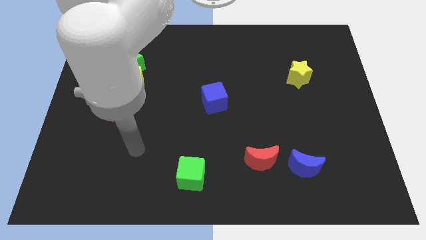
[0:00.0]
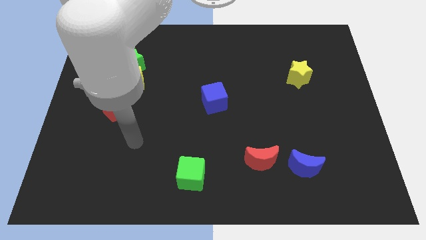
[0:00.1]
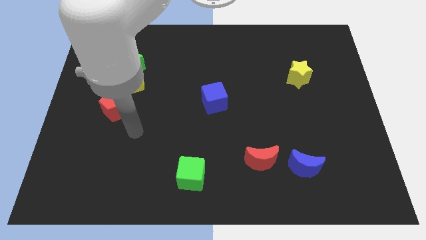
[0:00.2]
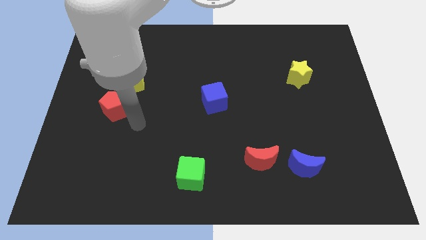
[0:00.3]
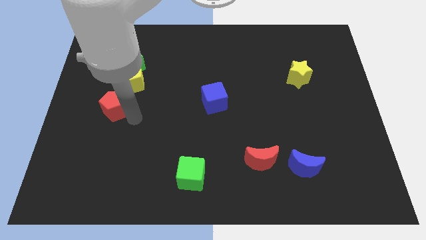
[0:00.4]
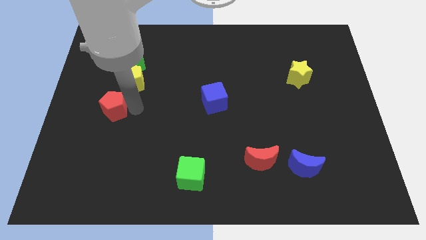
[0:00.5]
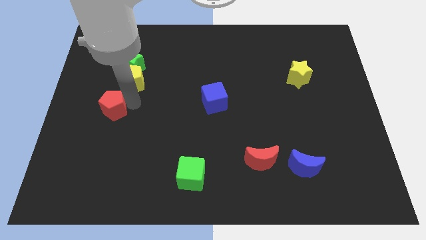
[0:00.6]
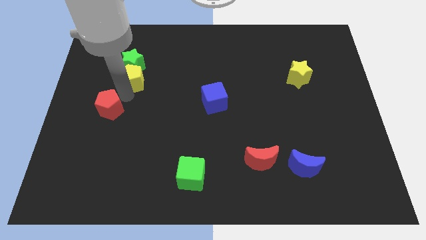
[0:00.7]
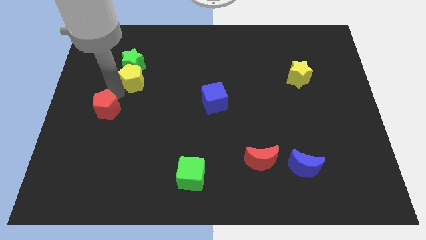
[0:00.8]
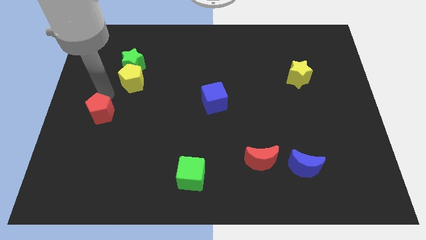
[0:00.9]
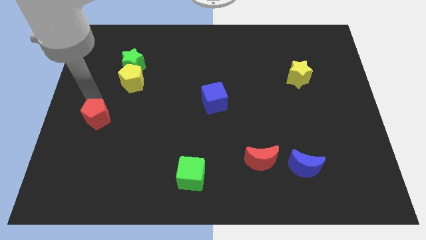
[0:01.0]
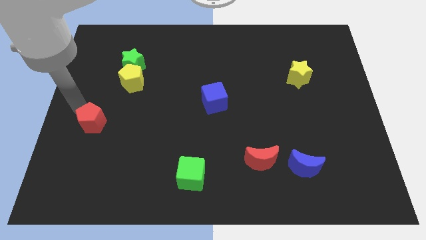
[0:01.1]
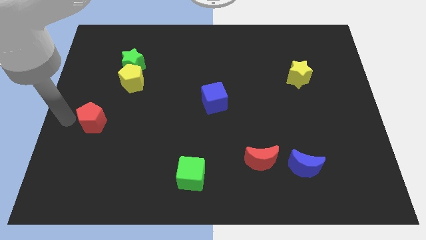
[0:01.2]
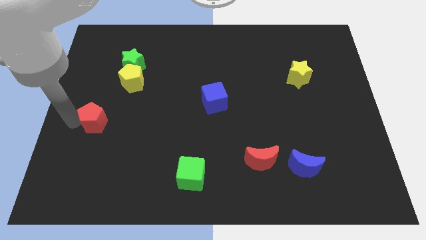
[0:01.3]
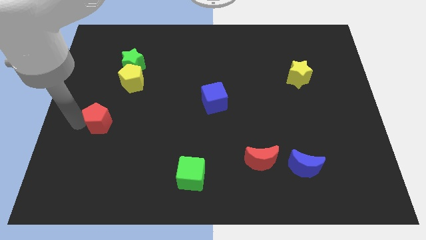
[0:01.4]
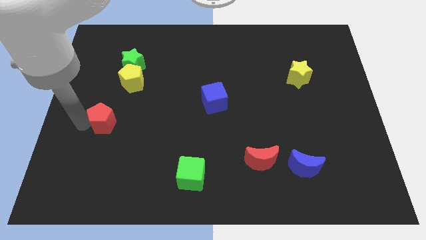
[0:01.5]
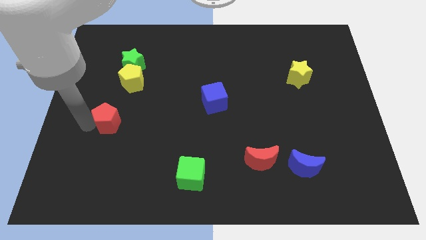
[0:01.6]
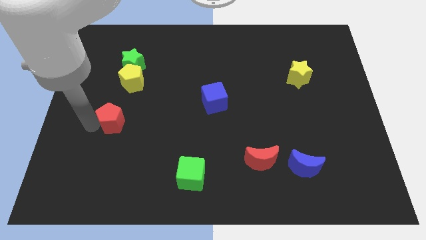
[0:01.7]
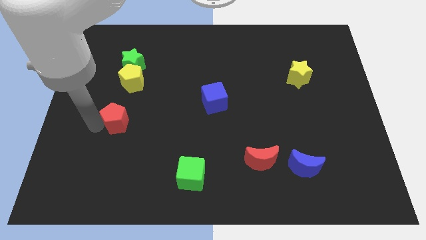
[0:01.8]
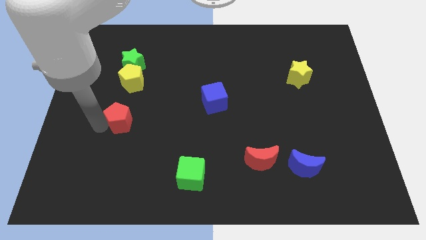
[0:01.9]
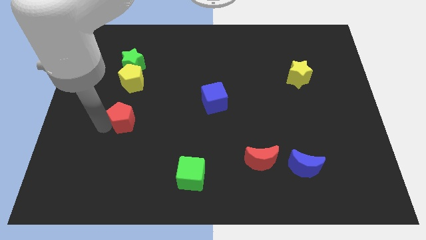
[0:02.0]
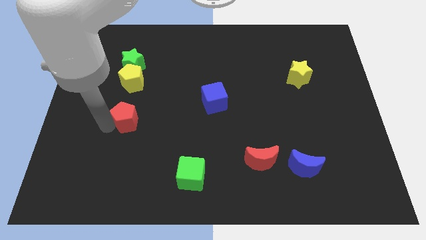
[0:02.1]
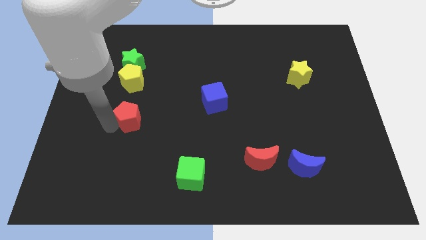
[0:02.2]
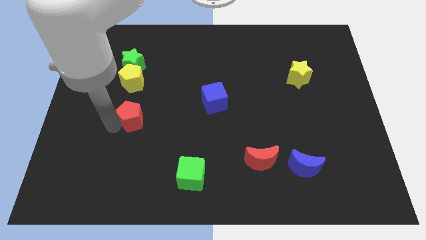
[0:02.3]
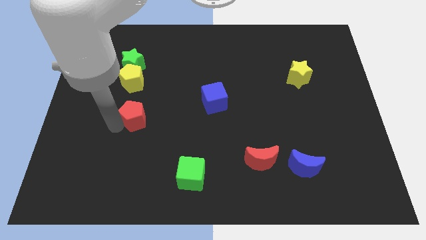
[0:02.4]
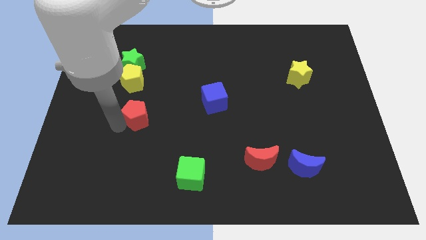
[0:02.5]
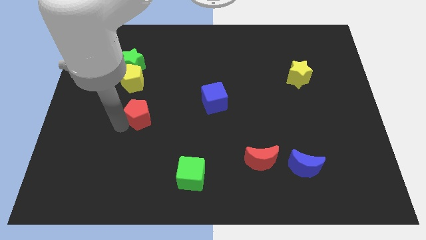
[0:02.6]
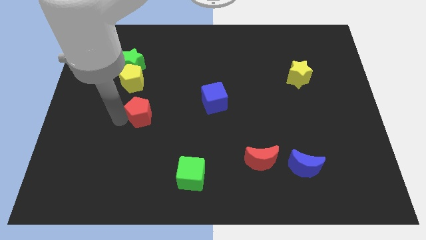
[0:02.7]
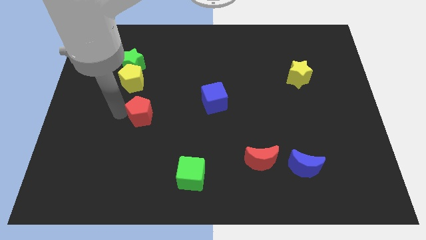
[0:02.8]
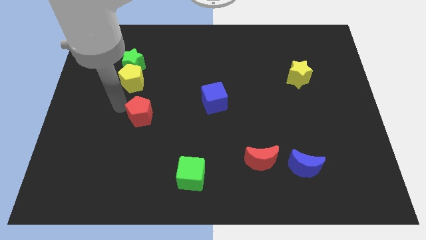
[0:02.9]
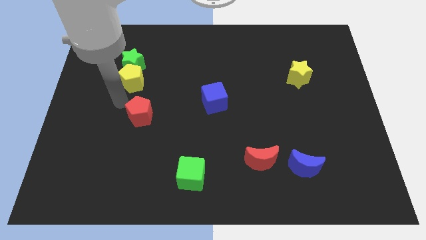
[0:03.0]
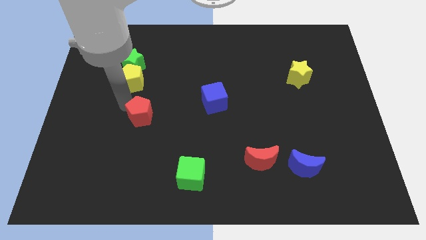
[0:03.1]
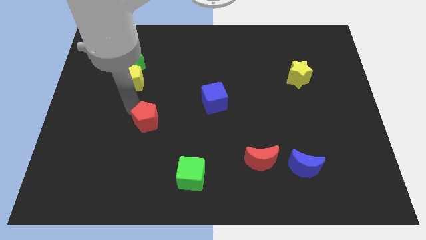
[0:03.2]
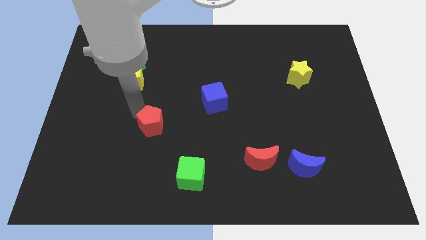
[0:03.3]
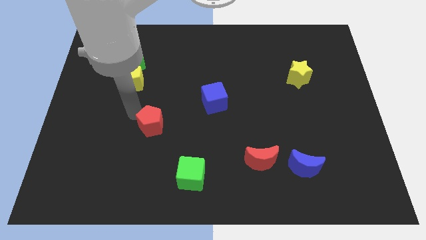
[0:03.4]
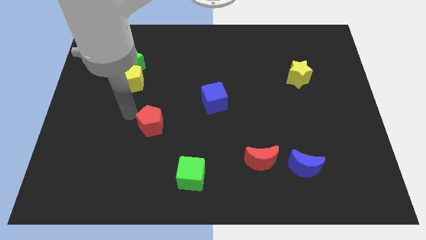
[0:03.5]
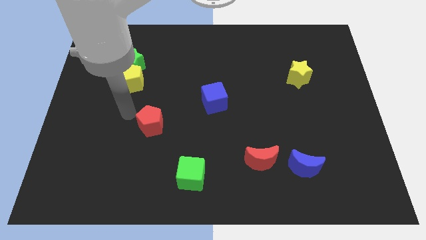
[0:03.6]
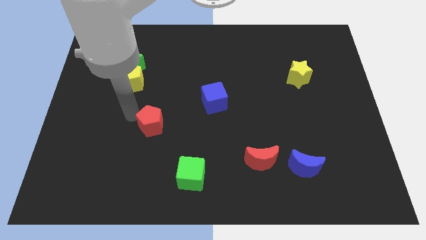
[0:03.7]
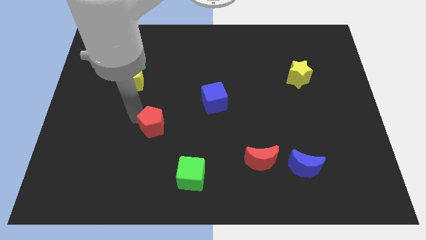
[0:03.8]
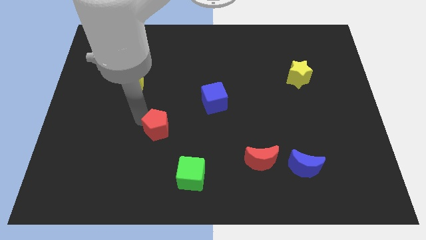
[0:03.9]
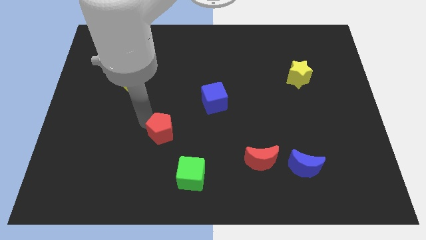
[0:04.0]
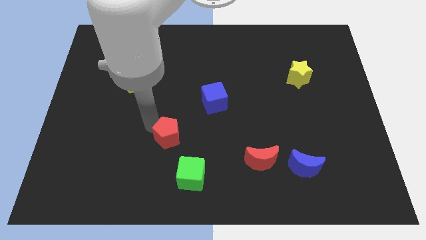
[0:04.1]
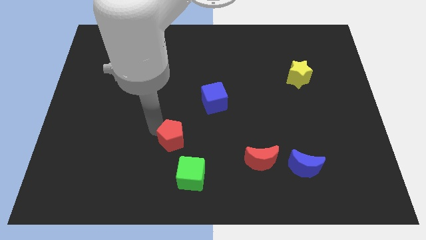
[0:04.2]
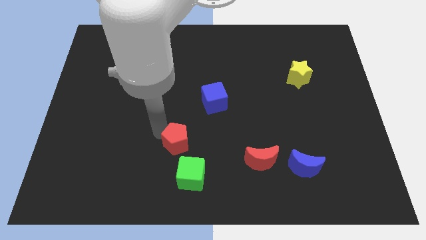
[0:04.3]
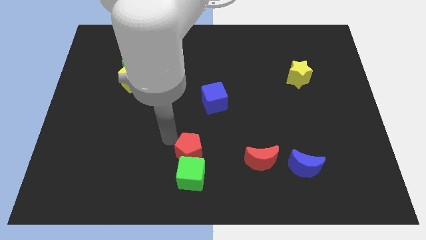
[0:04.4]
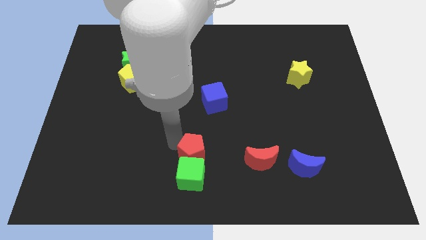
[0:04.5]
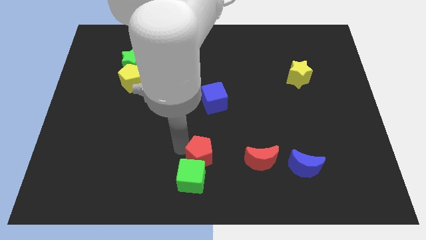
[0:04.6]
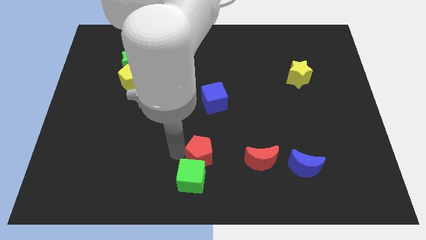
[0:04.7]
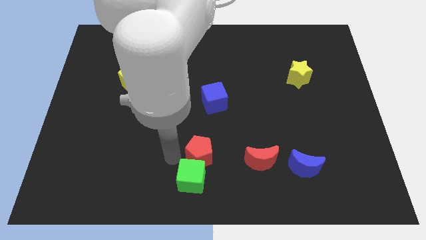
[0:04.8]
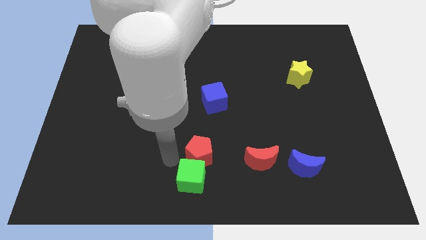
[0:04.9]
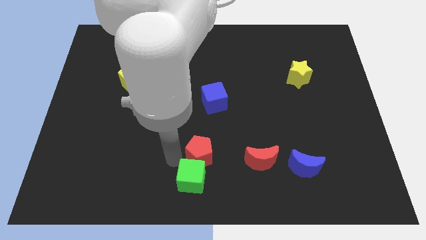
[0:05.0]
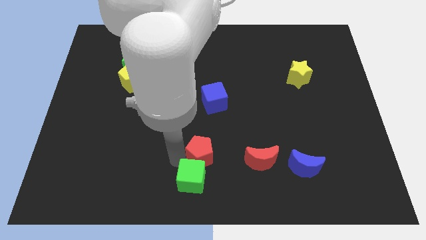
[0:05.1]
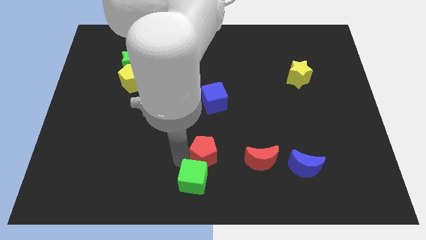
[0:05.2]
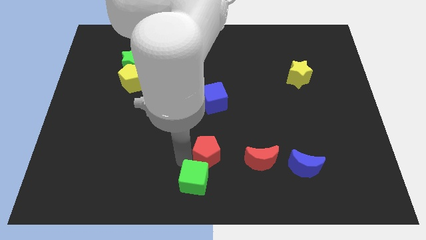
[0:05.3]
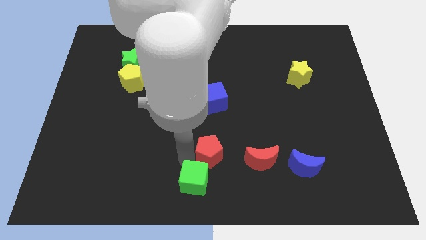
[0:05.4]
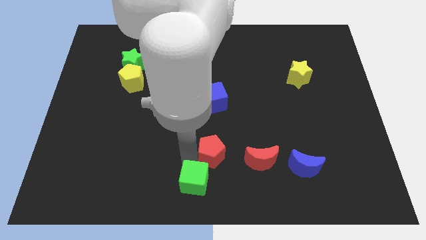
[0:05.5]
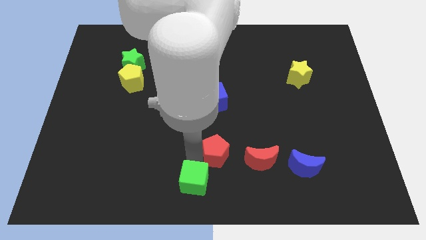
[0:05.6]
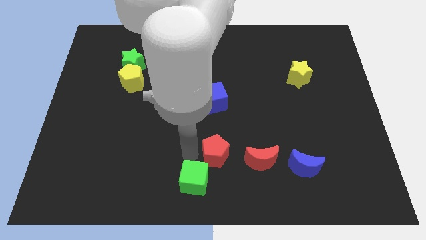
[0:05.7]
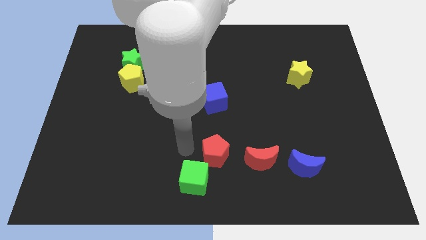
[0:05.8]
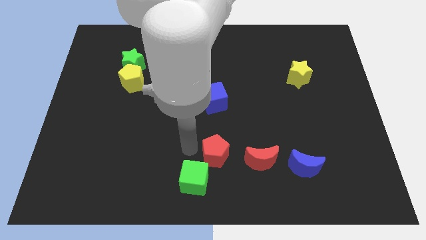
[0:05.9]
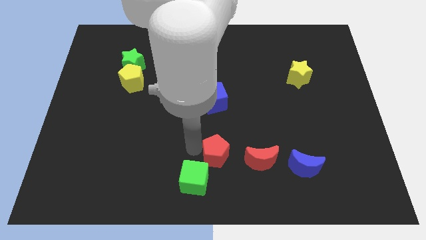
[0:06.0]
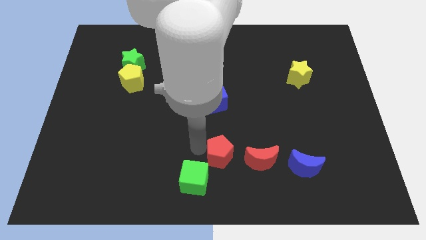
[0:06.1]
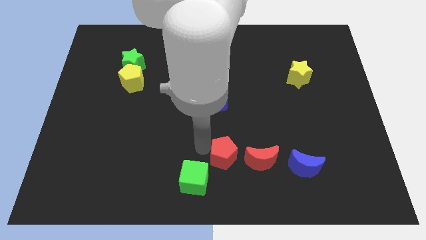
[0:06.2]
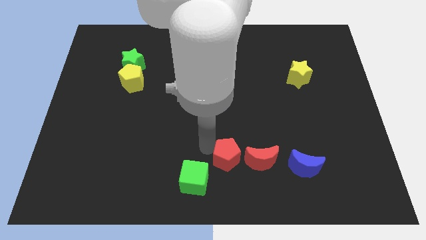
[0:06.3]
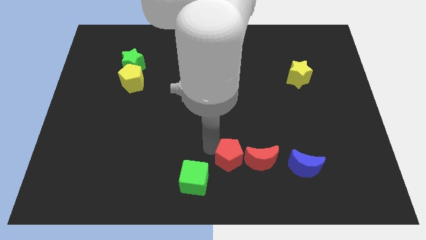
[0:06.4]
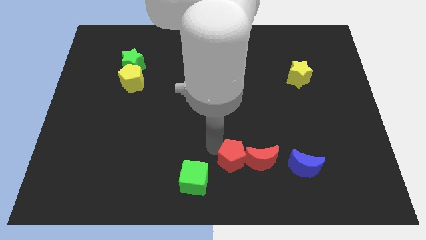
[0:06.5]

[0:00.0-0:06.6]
move the red pentagon next to the red moon

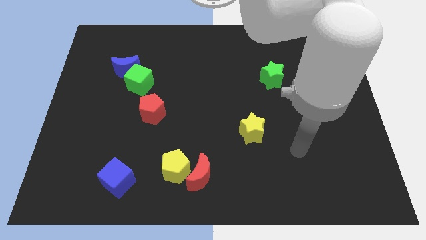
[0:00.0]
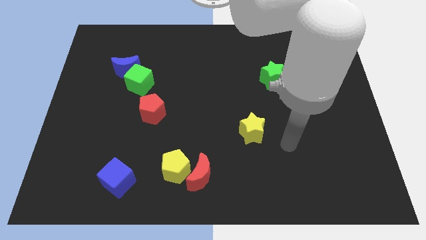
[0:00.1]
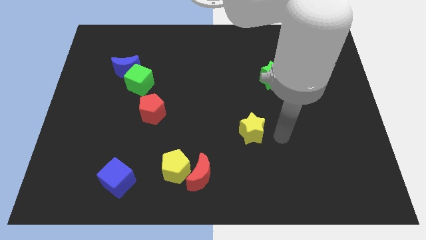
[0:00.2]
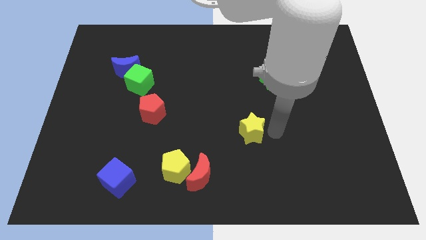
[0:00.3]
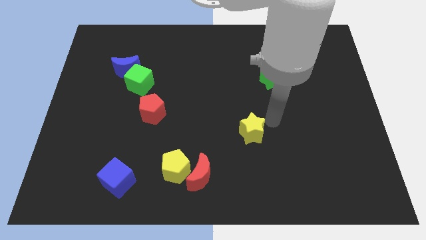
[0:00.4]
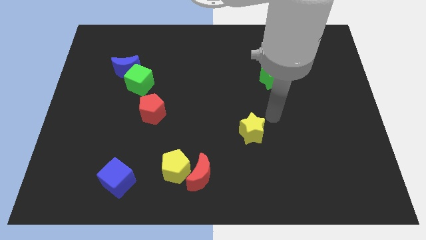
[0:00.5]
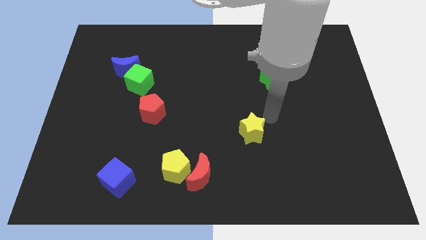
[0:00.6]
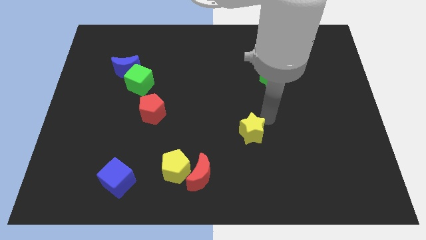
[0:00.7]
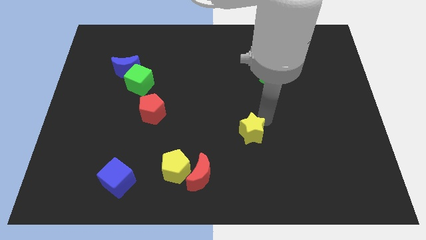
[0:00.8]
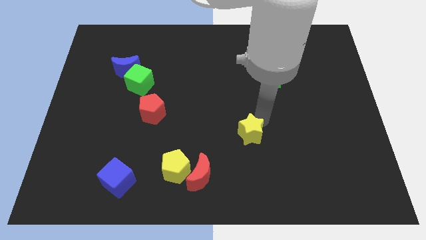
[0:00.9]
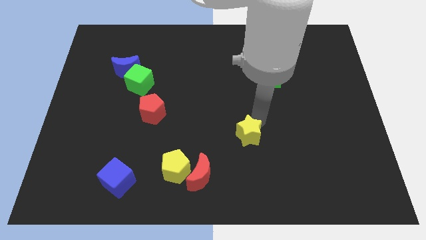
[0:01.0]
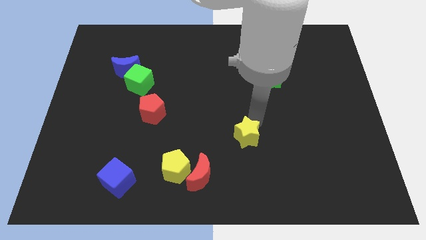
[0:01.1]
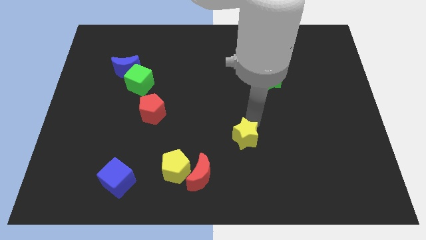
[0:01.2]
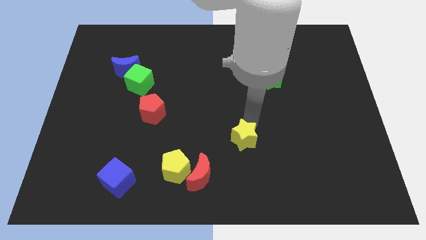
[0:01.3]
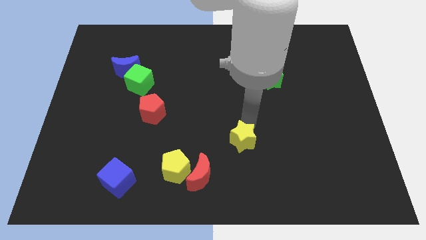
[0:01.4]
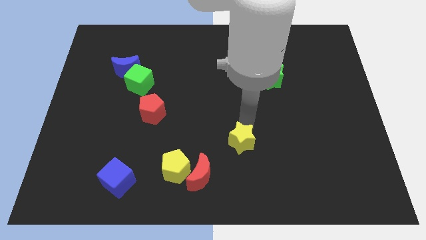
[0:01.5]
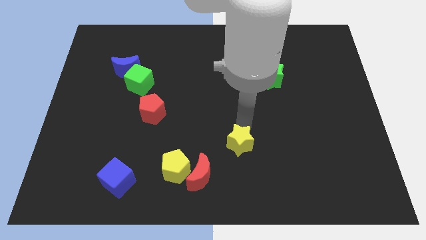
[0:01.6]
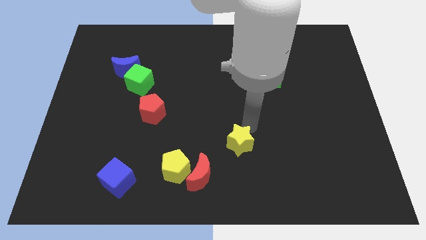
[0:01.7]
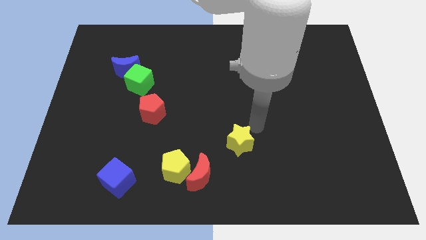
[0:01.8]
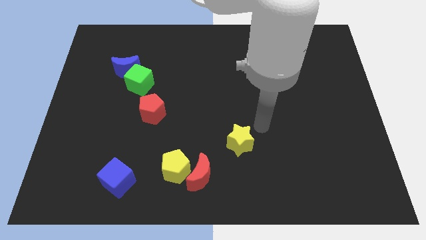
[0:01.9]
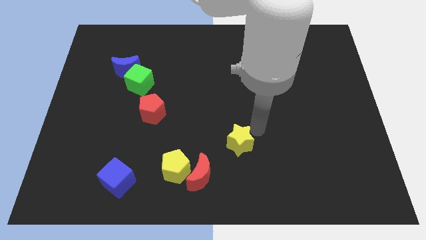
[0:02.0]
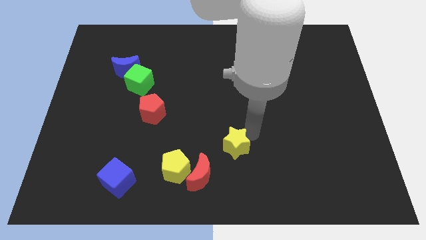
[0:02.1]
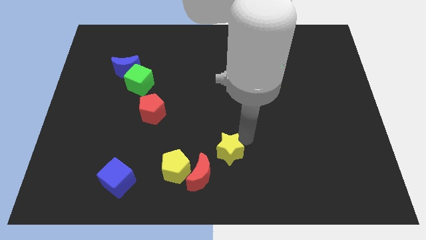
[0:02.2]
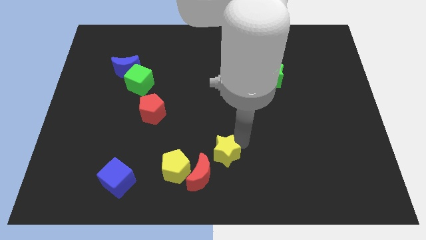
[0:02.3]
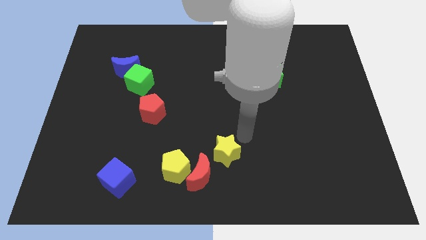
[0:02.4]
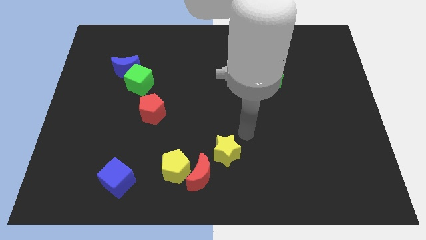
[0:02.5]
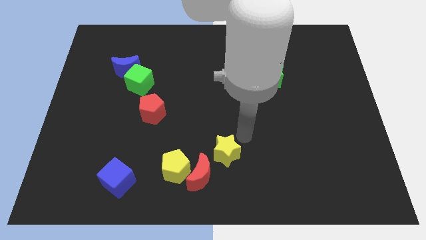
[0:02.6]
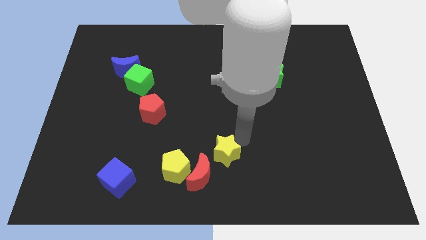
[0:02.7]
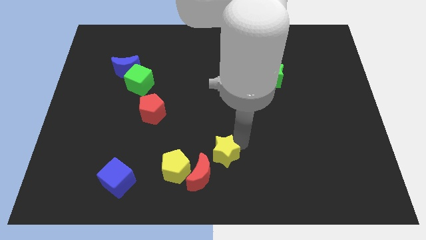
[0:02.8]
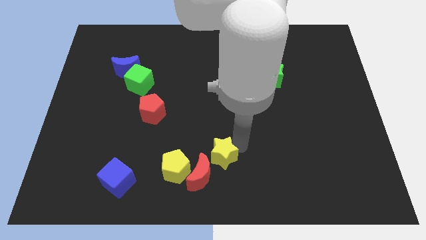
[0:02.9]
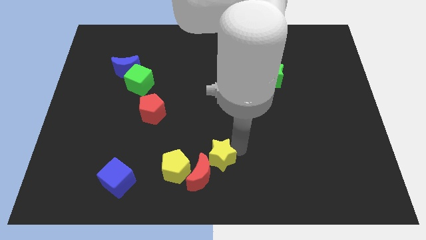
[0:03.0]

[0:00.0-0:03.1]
slide the yellow star close to the red moon
